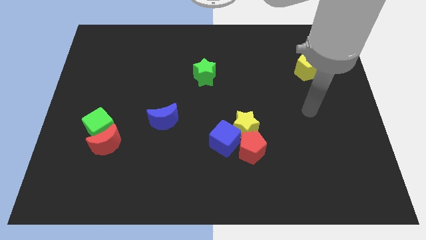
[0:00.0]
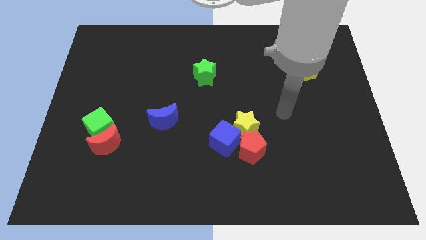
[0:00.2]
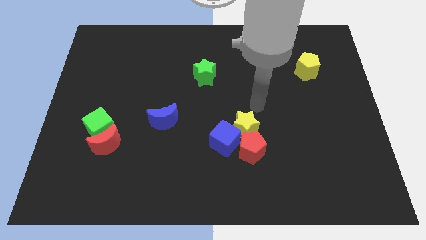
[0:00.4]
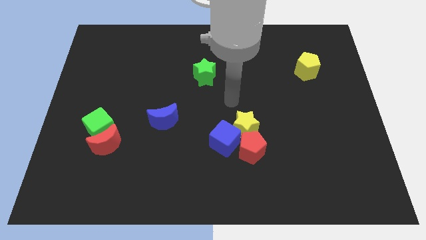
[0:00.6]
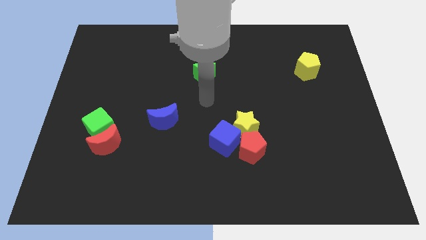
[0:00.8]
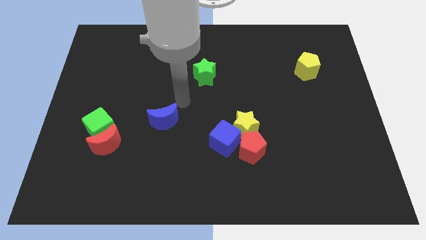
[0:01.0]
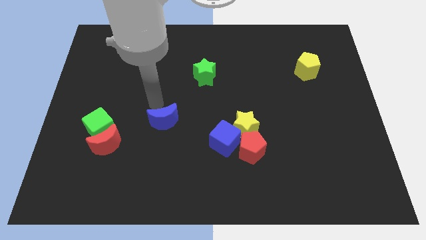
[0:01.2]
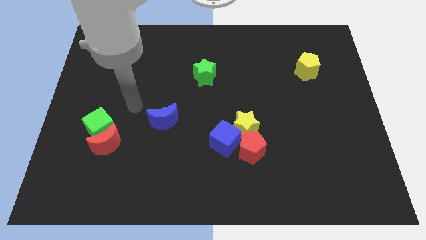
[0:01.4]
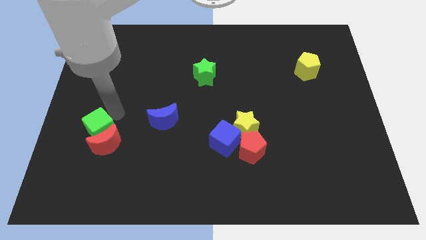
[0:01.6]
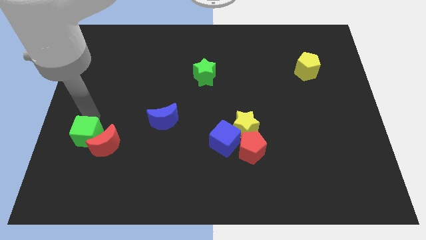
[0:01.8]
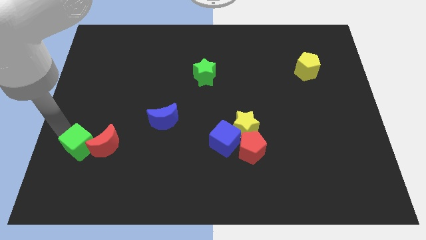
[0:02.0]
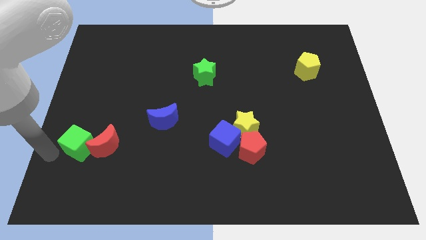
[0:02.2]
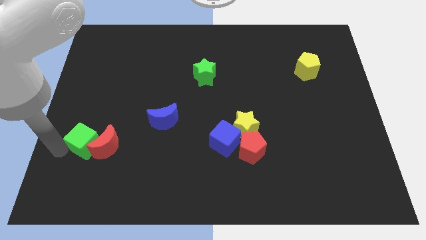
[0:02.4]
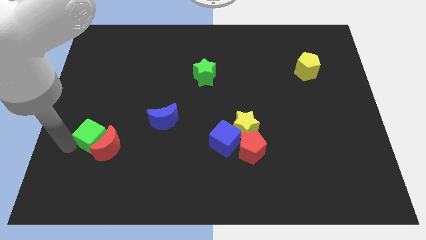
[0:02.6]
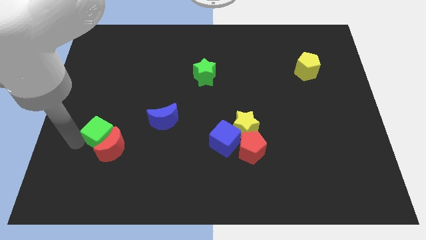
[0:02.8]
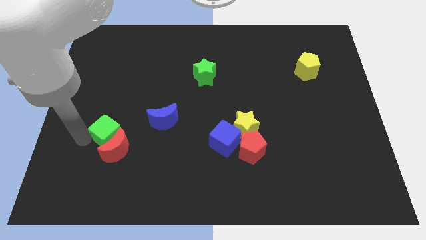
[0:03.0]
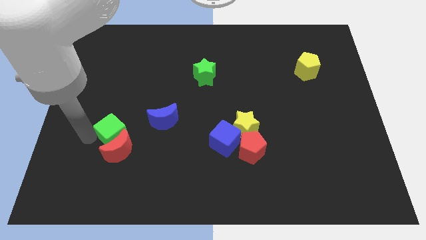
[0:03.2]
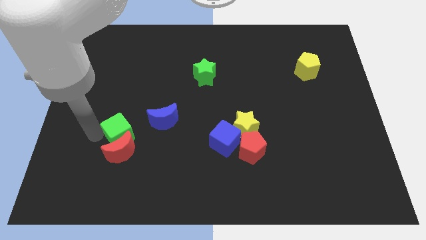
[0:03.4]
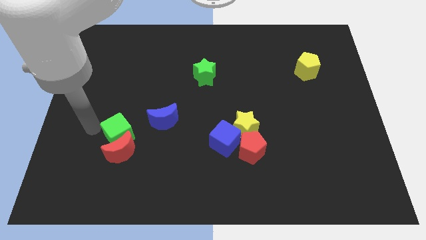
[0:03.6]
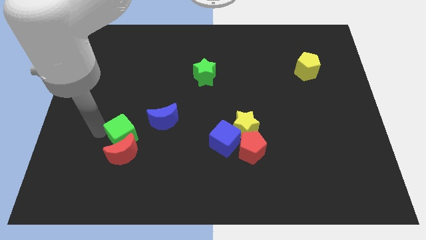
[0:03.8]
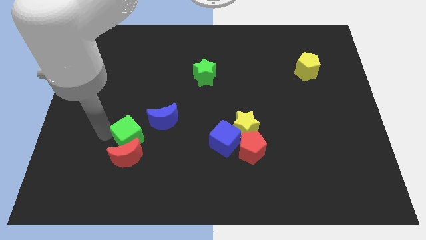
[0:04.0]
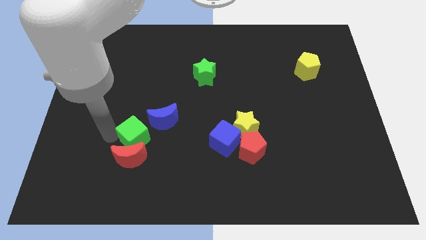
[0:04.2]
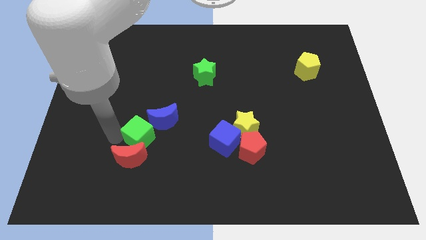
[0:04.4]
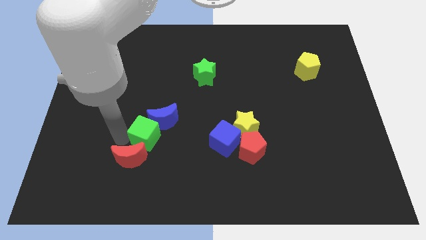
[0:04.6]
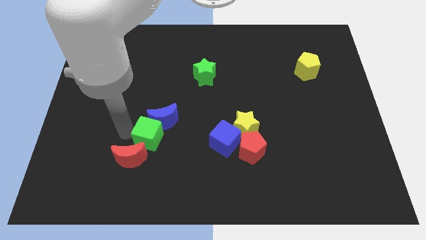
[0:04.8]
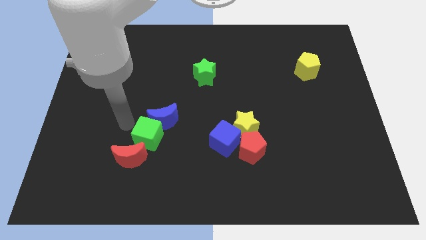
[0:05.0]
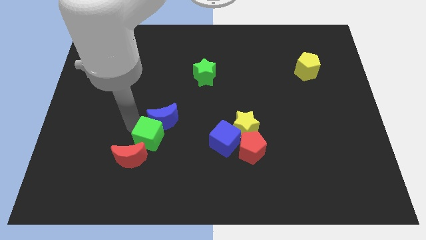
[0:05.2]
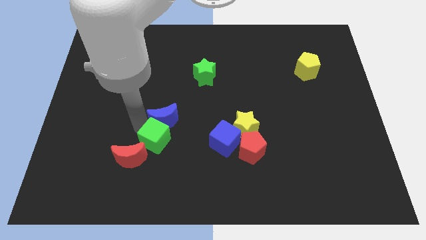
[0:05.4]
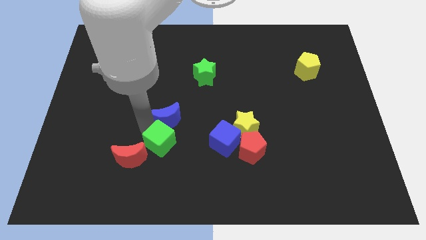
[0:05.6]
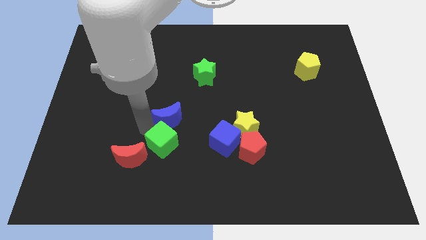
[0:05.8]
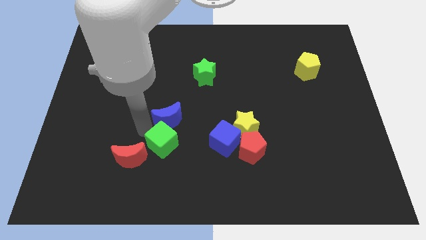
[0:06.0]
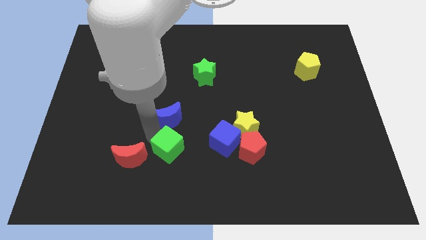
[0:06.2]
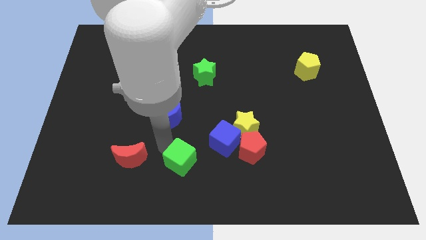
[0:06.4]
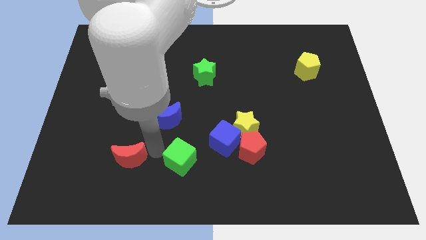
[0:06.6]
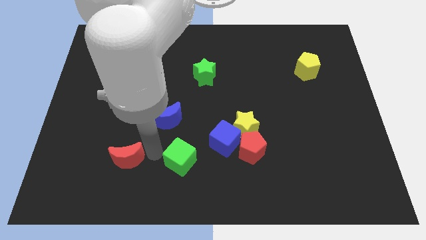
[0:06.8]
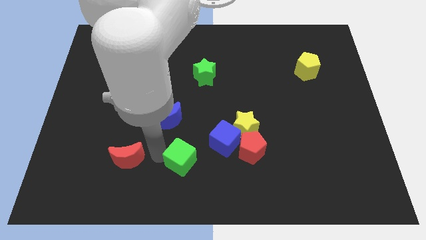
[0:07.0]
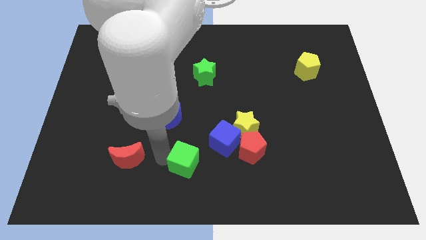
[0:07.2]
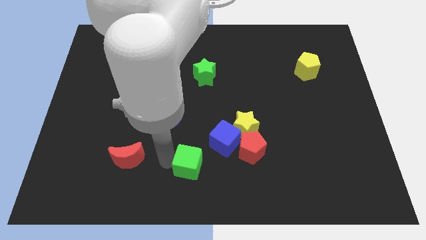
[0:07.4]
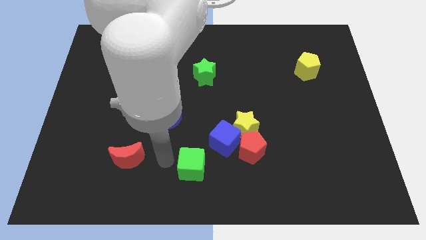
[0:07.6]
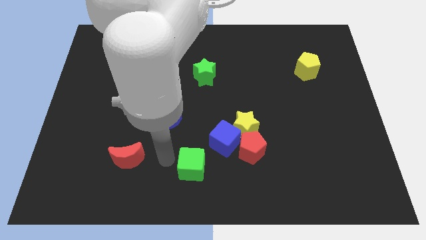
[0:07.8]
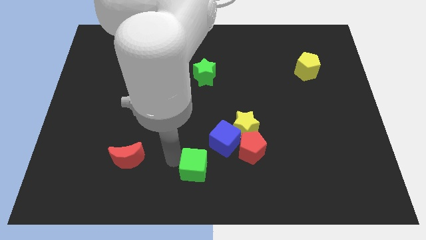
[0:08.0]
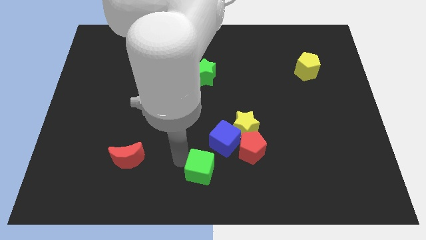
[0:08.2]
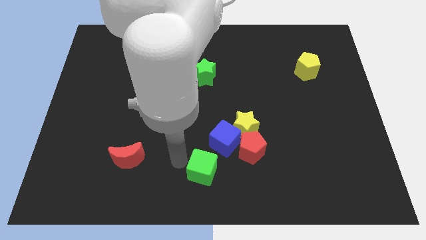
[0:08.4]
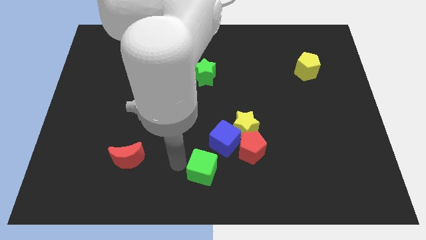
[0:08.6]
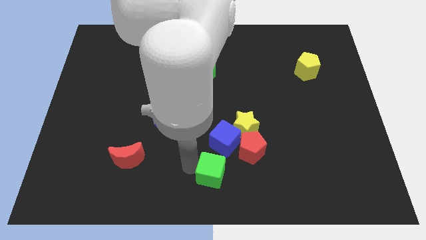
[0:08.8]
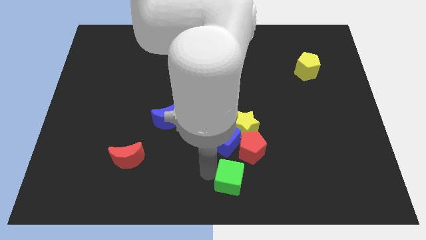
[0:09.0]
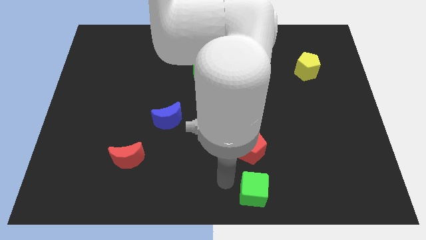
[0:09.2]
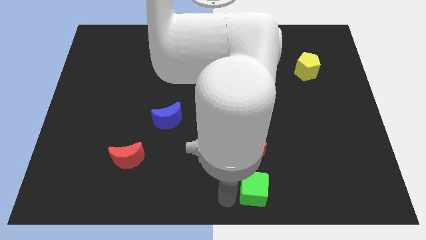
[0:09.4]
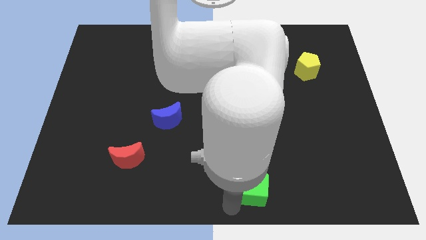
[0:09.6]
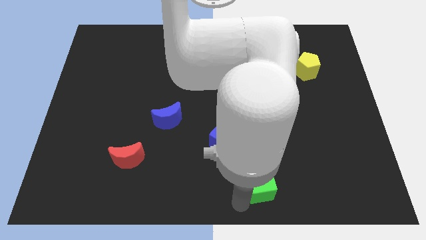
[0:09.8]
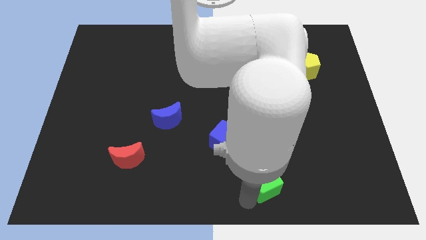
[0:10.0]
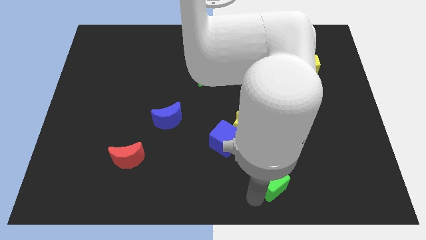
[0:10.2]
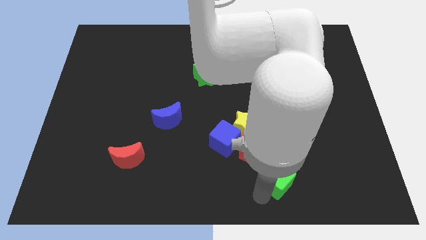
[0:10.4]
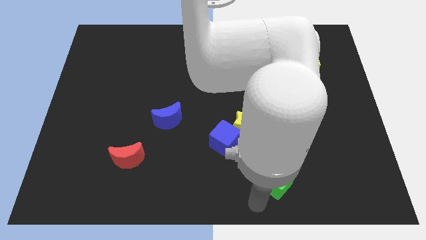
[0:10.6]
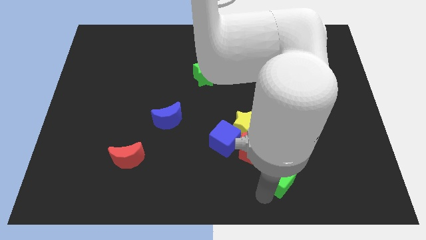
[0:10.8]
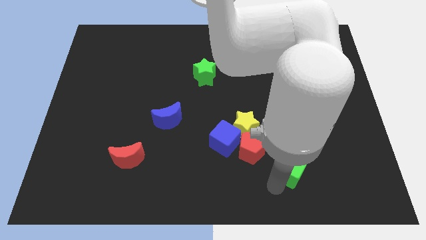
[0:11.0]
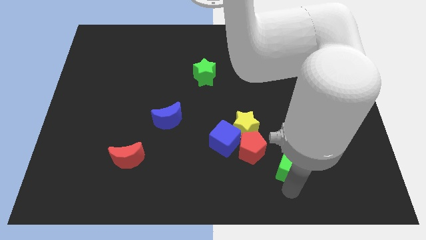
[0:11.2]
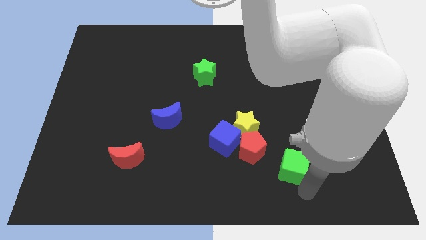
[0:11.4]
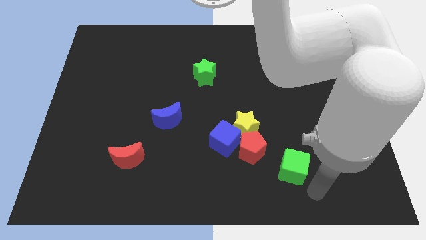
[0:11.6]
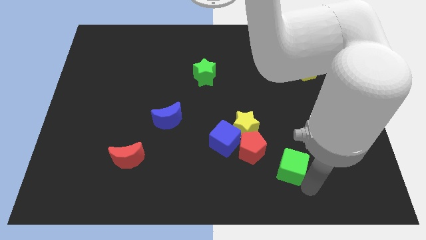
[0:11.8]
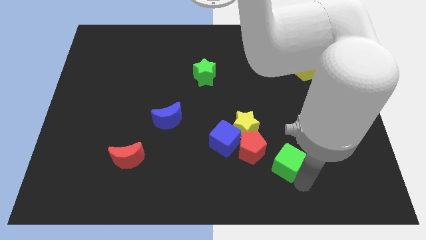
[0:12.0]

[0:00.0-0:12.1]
move the green cube diagonally down and to the right of the yellow star
